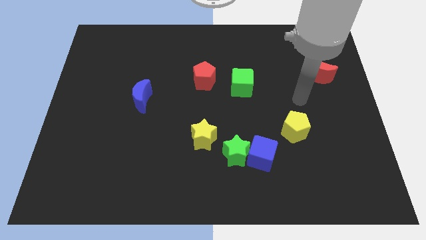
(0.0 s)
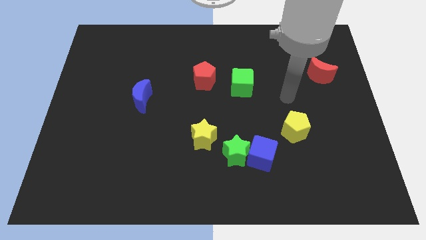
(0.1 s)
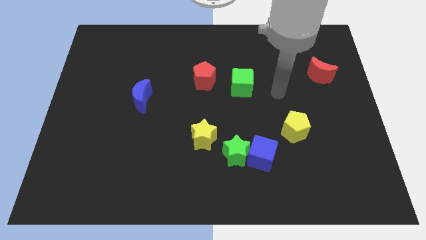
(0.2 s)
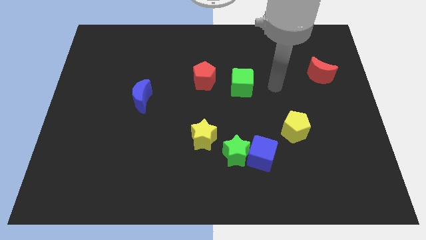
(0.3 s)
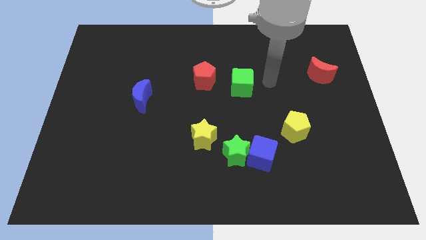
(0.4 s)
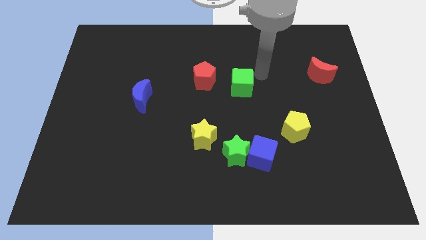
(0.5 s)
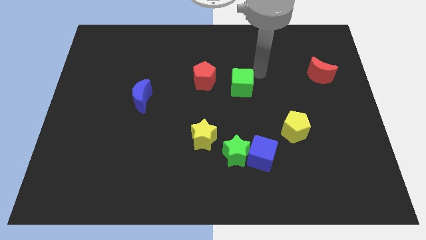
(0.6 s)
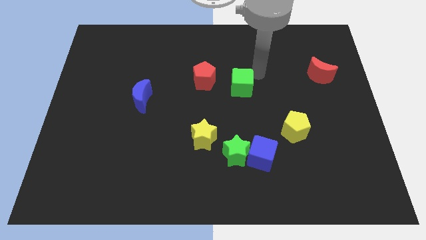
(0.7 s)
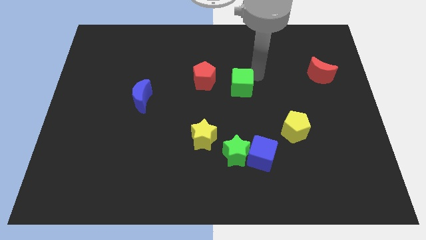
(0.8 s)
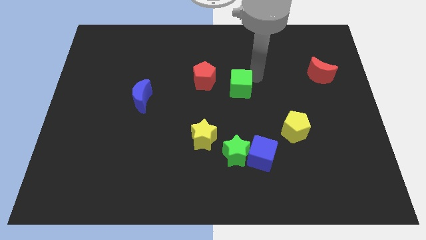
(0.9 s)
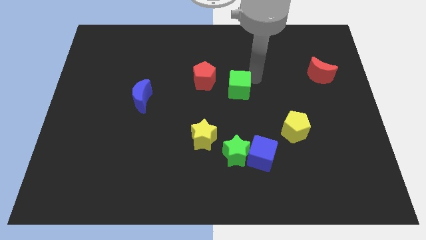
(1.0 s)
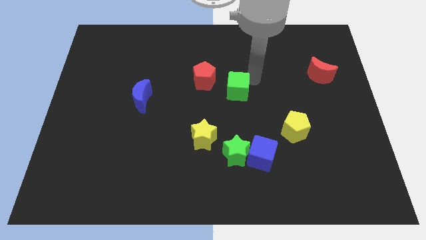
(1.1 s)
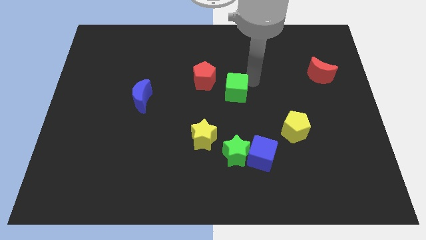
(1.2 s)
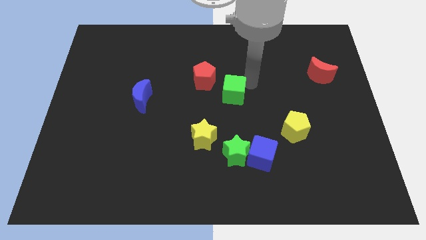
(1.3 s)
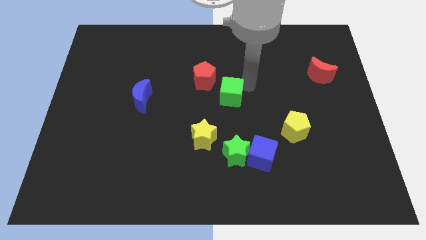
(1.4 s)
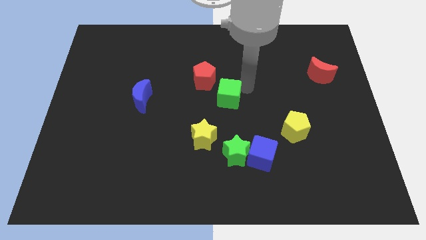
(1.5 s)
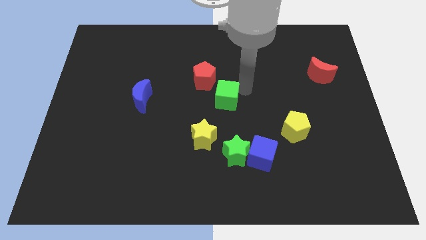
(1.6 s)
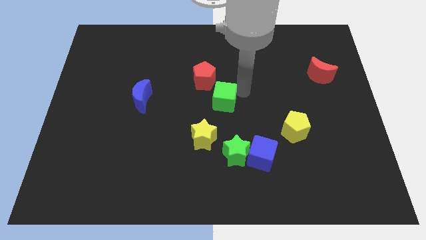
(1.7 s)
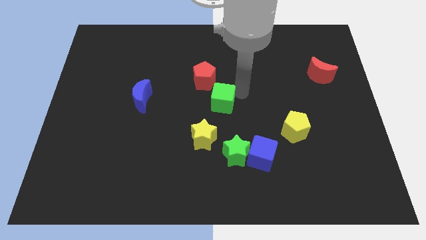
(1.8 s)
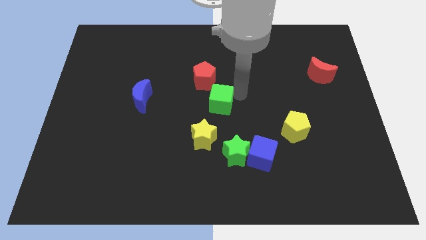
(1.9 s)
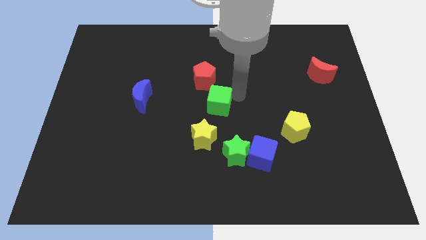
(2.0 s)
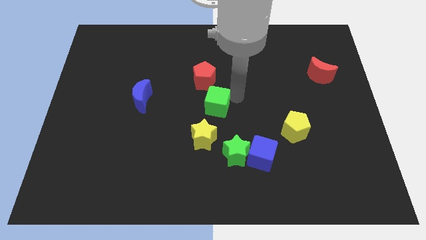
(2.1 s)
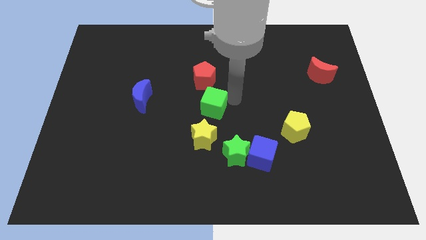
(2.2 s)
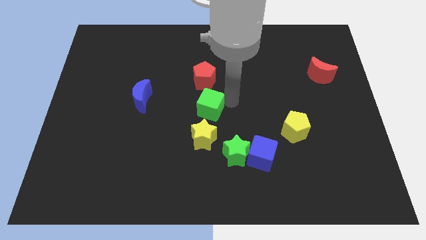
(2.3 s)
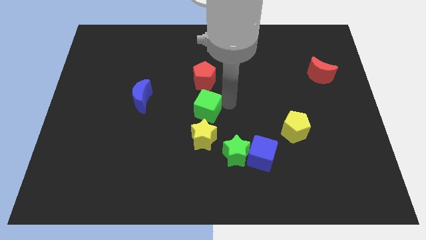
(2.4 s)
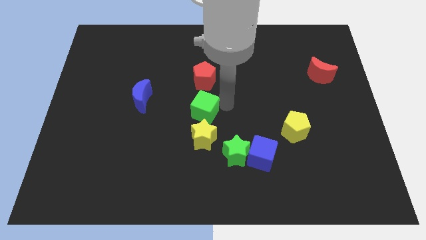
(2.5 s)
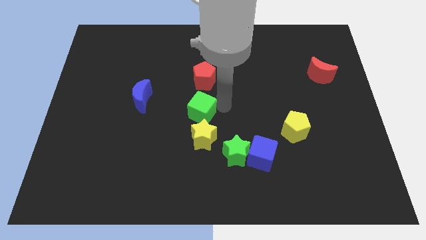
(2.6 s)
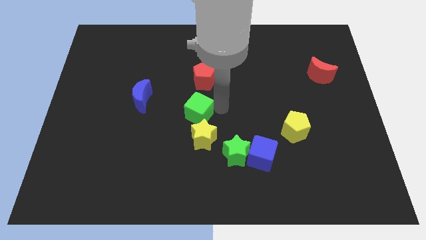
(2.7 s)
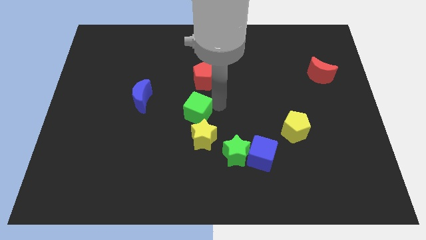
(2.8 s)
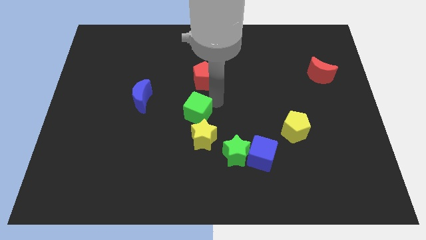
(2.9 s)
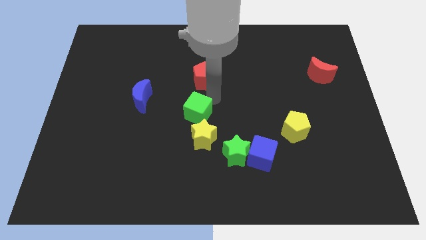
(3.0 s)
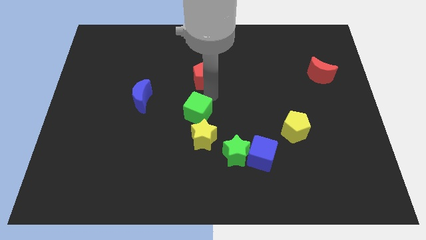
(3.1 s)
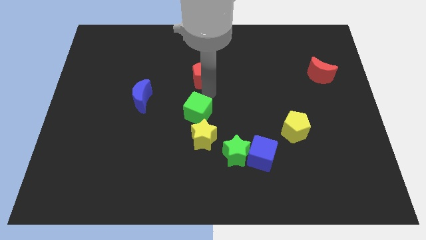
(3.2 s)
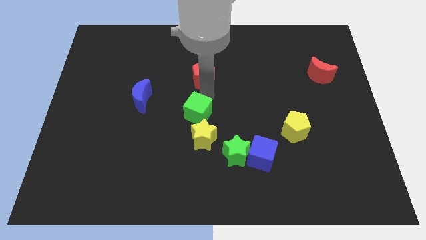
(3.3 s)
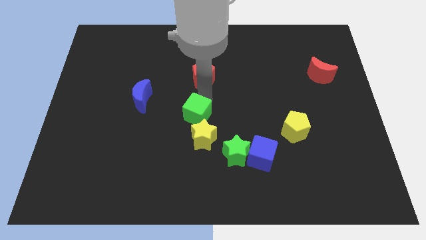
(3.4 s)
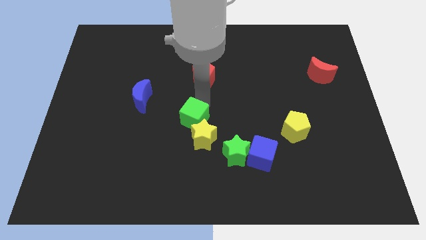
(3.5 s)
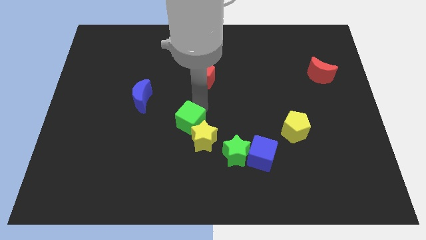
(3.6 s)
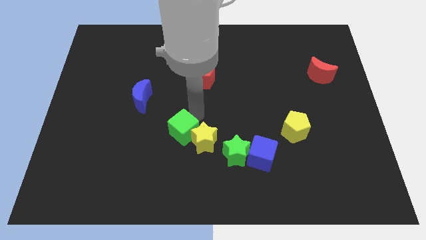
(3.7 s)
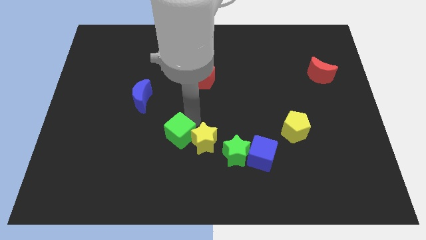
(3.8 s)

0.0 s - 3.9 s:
slide the green cube diagonally downwards and to the left

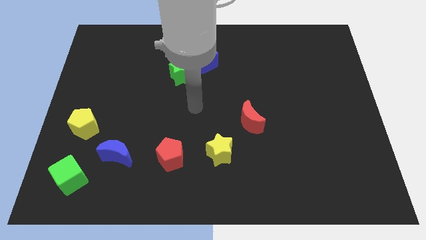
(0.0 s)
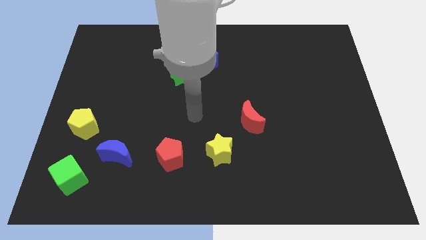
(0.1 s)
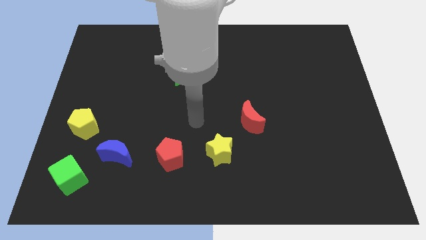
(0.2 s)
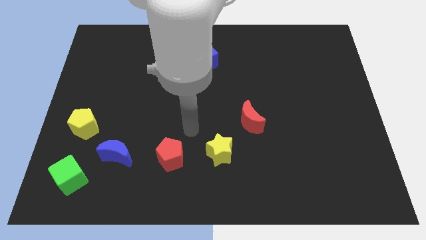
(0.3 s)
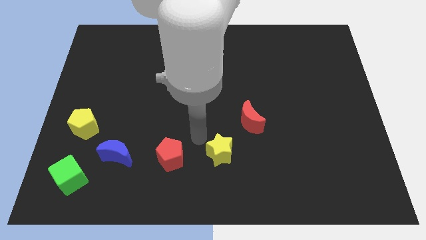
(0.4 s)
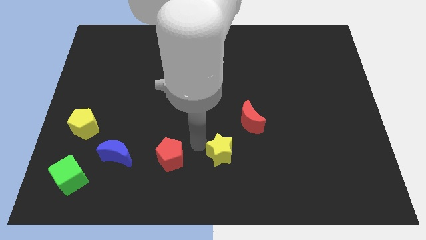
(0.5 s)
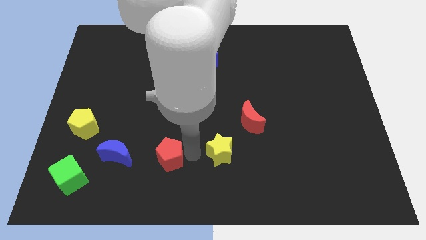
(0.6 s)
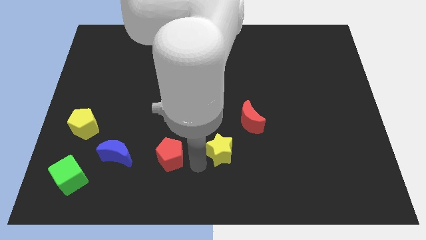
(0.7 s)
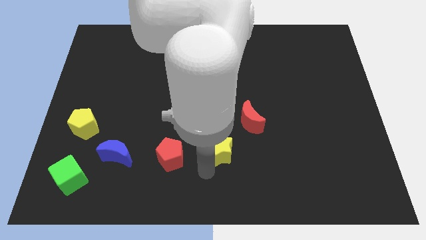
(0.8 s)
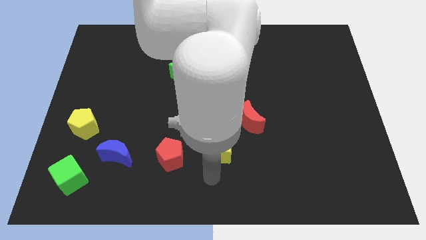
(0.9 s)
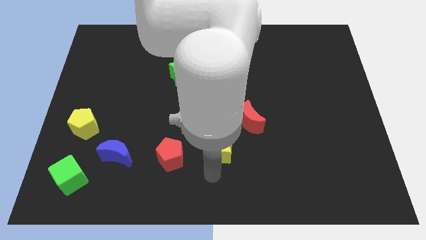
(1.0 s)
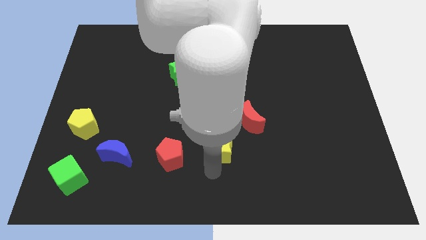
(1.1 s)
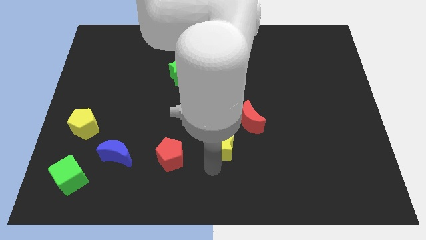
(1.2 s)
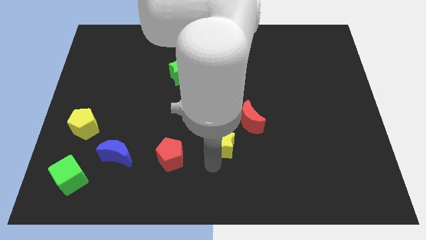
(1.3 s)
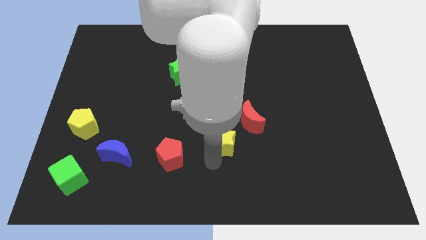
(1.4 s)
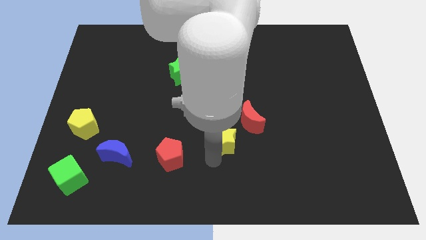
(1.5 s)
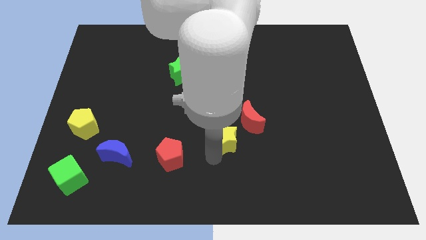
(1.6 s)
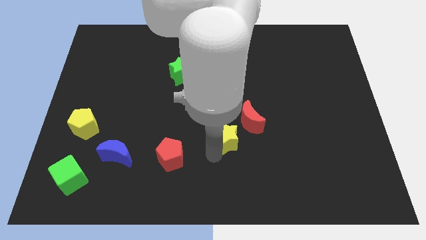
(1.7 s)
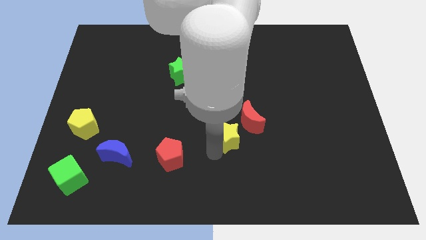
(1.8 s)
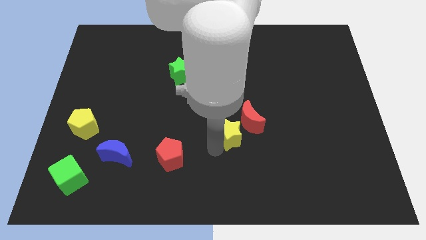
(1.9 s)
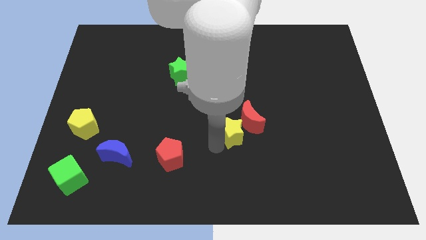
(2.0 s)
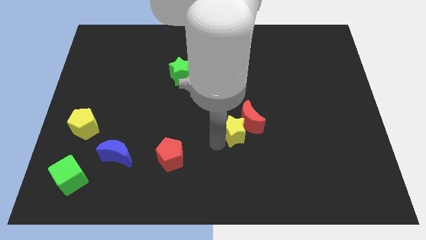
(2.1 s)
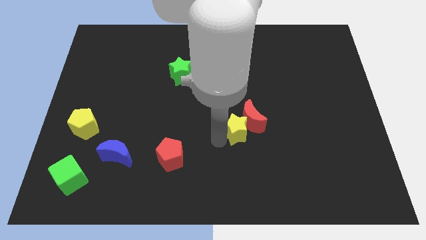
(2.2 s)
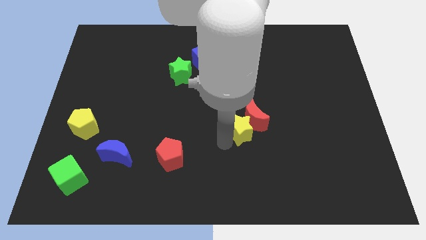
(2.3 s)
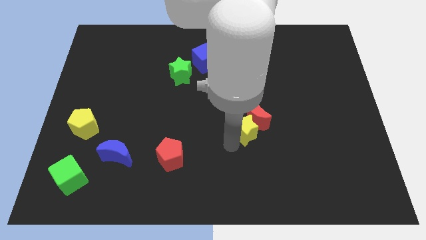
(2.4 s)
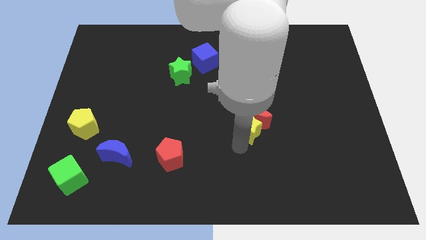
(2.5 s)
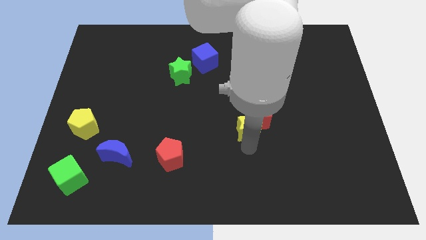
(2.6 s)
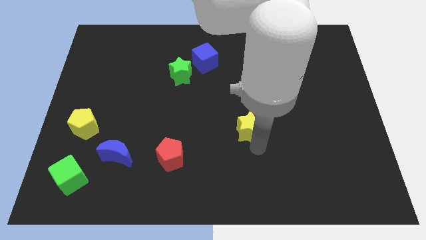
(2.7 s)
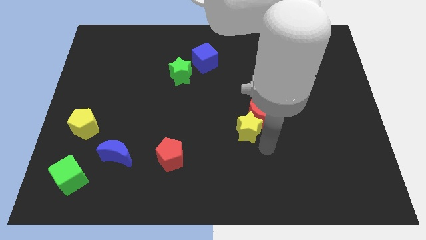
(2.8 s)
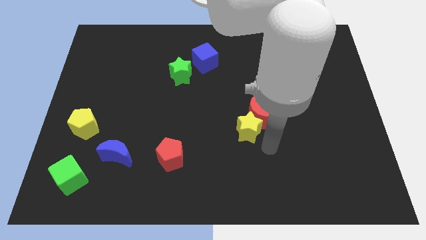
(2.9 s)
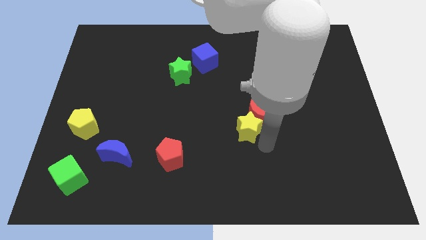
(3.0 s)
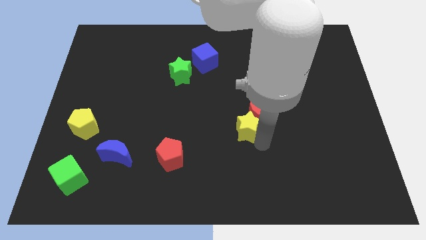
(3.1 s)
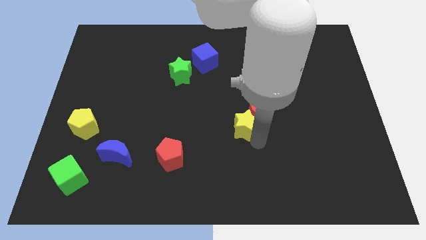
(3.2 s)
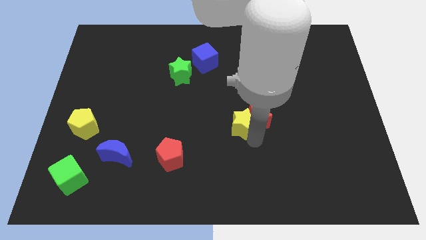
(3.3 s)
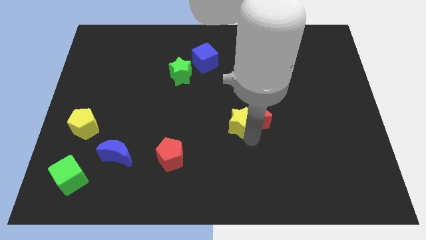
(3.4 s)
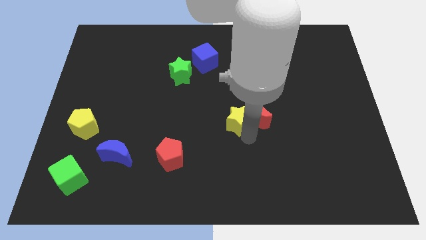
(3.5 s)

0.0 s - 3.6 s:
slightly push the yellow star upwards

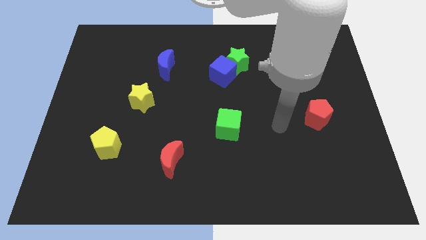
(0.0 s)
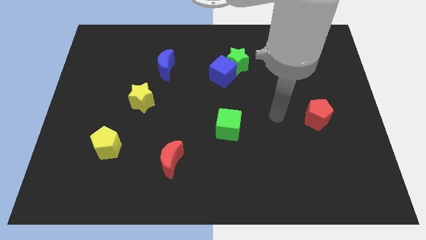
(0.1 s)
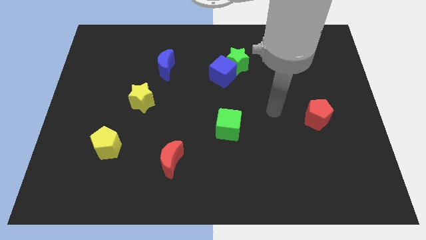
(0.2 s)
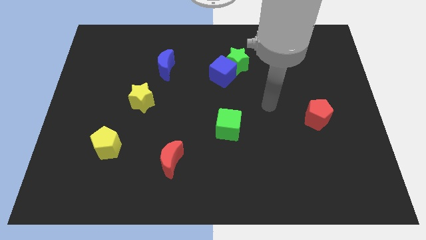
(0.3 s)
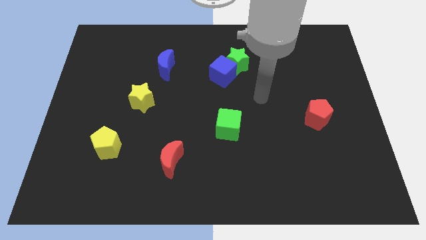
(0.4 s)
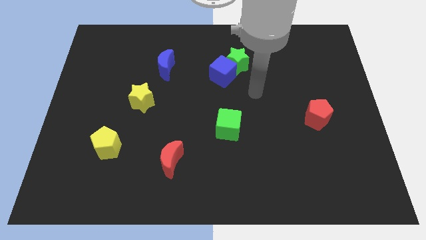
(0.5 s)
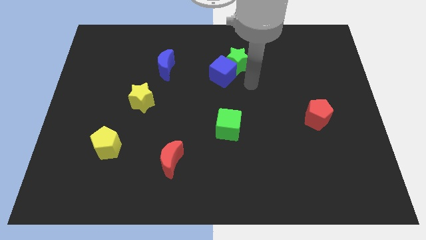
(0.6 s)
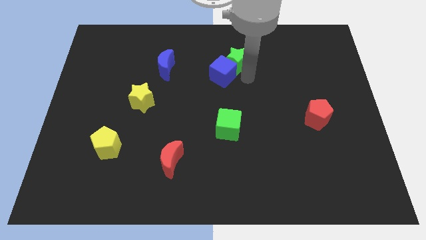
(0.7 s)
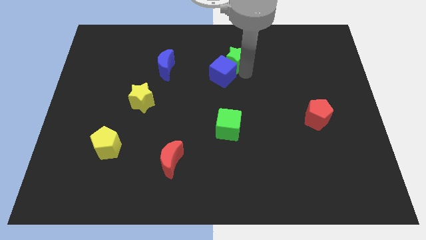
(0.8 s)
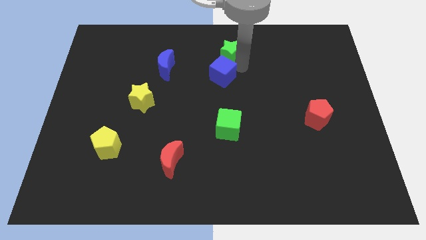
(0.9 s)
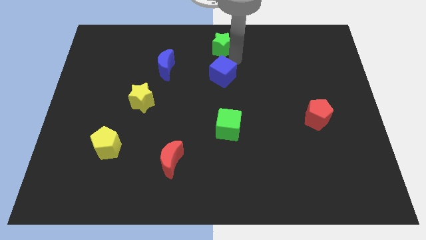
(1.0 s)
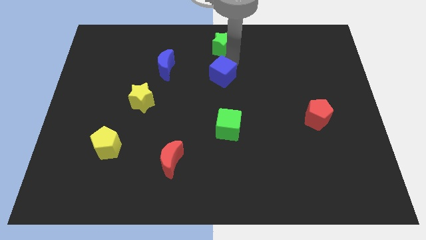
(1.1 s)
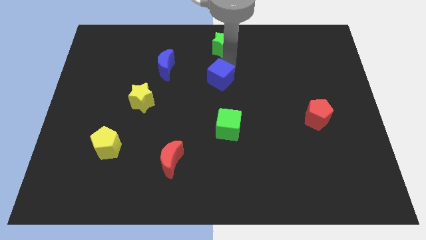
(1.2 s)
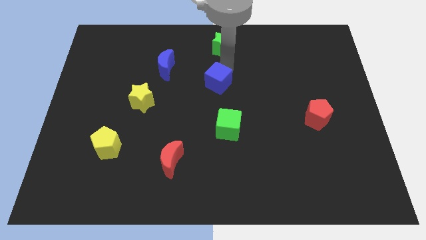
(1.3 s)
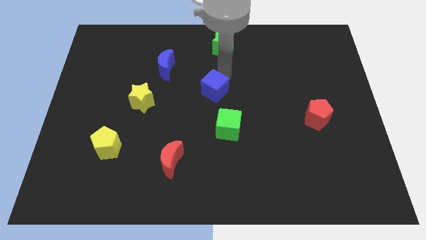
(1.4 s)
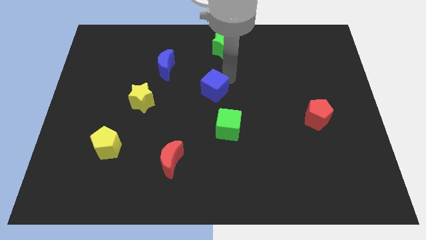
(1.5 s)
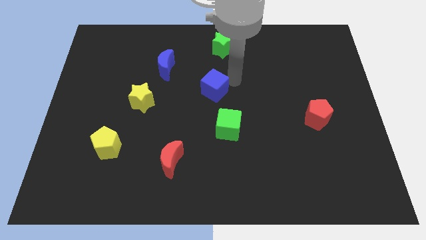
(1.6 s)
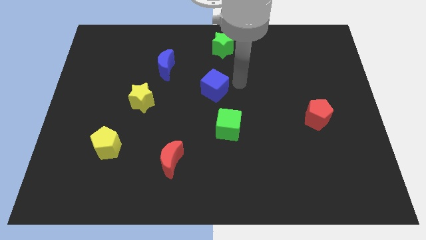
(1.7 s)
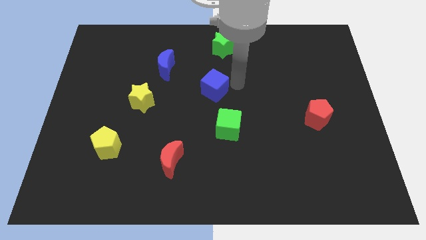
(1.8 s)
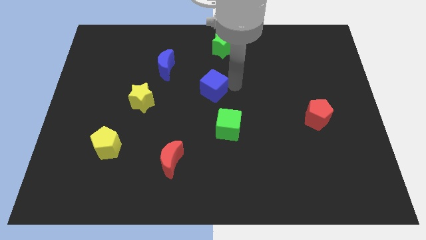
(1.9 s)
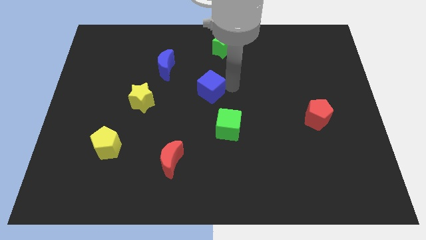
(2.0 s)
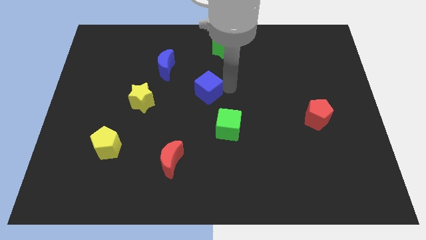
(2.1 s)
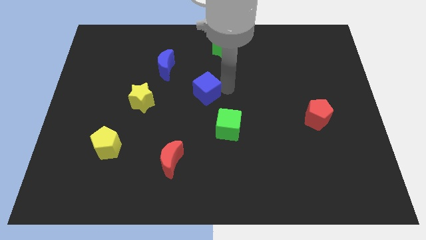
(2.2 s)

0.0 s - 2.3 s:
slide the blue cube down and to the left diagonally slightly
